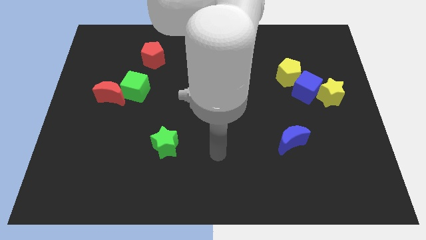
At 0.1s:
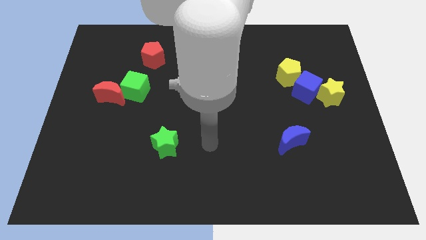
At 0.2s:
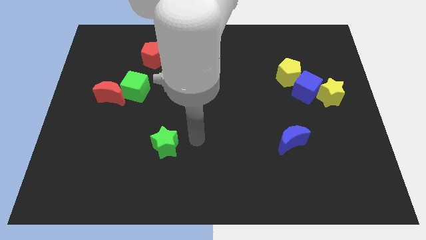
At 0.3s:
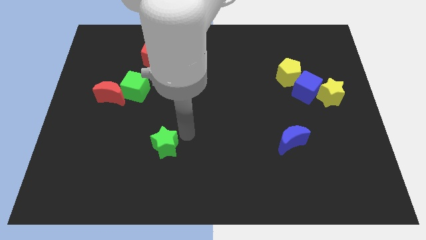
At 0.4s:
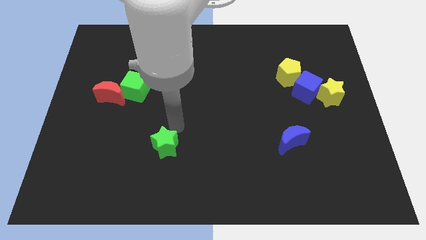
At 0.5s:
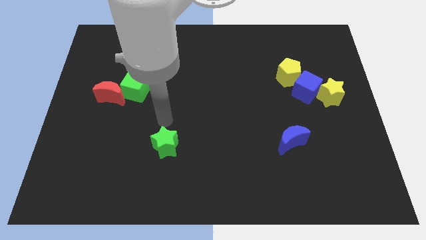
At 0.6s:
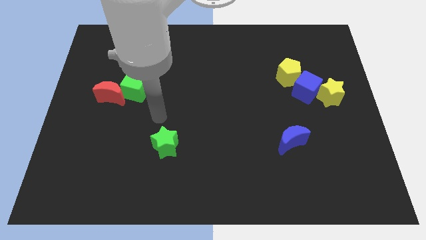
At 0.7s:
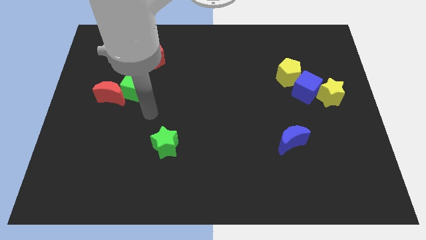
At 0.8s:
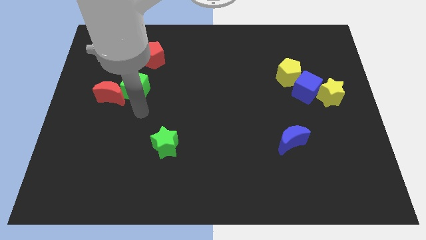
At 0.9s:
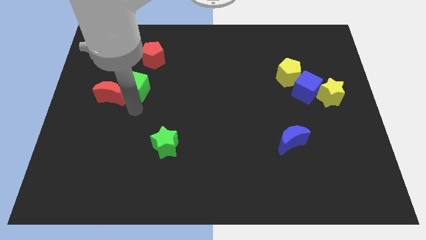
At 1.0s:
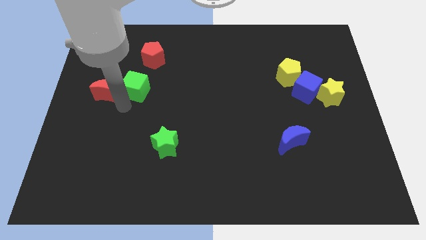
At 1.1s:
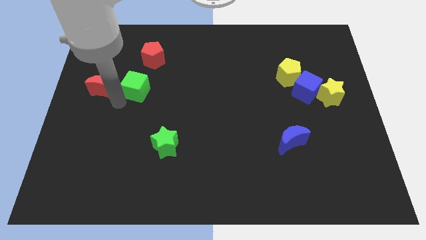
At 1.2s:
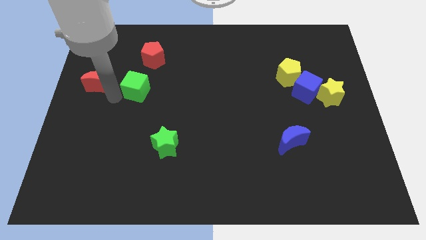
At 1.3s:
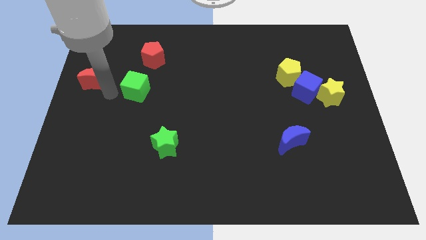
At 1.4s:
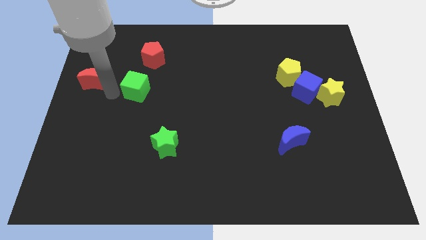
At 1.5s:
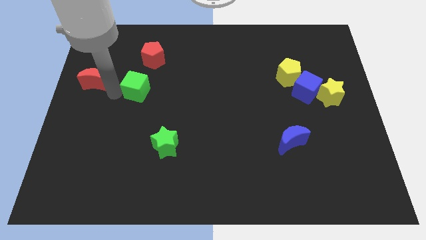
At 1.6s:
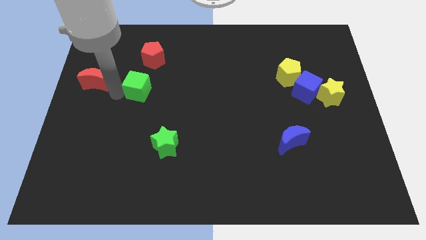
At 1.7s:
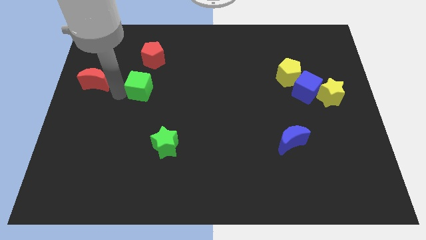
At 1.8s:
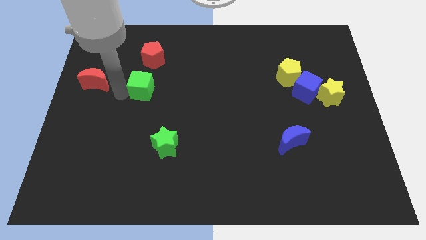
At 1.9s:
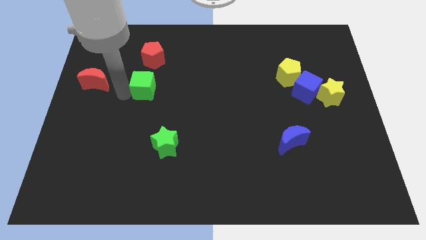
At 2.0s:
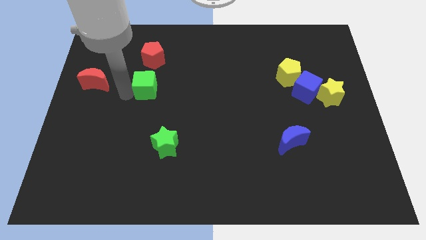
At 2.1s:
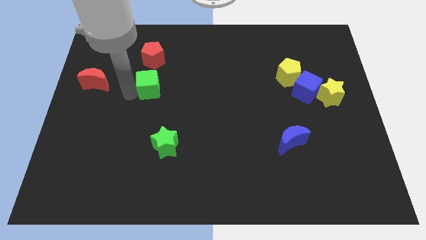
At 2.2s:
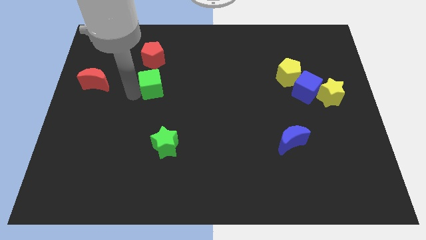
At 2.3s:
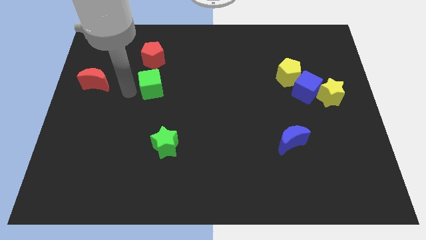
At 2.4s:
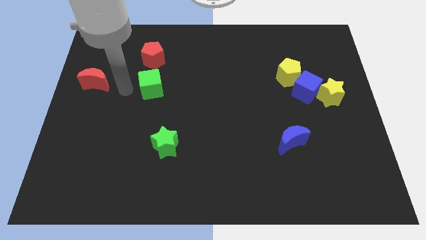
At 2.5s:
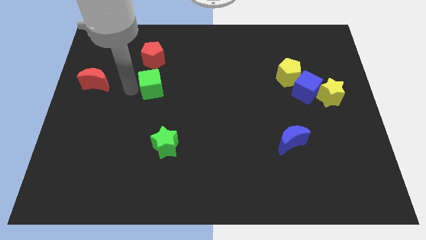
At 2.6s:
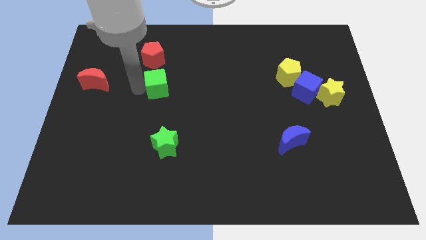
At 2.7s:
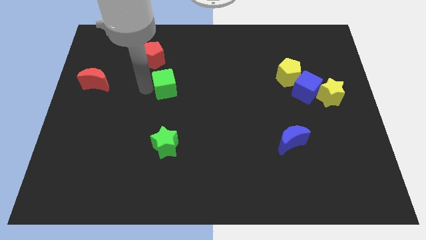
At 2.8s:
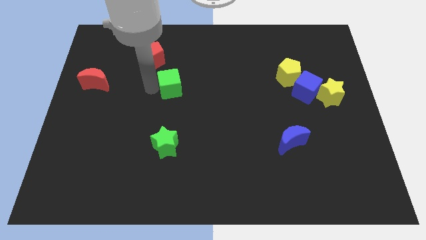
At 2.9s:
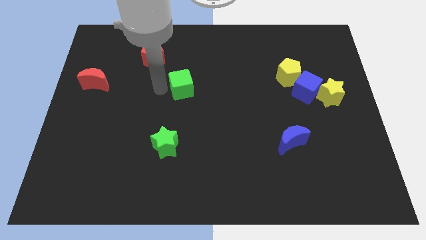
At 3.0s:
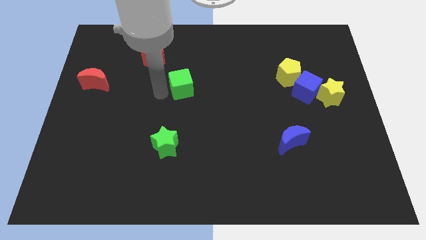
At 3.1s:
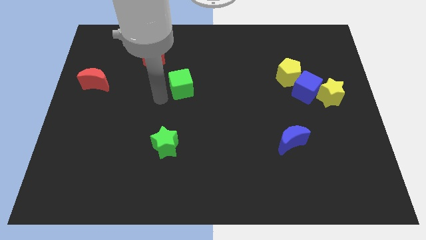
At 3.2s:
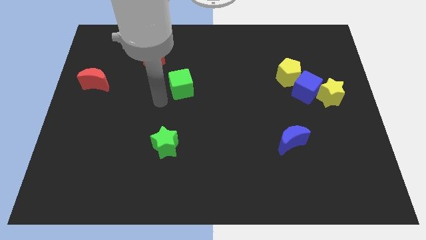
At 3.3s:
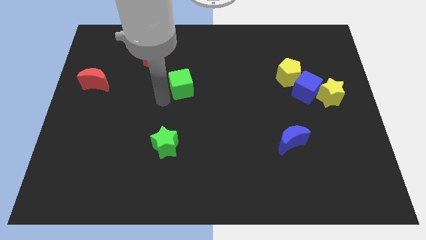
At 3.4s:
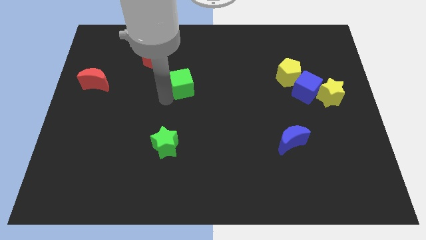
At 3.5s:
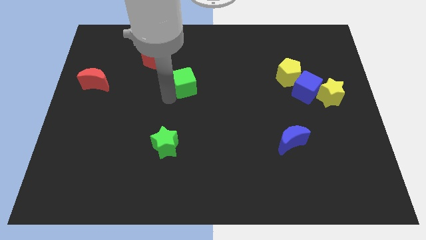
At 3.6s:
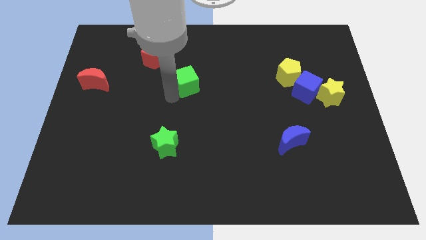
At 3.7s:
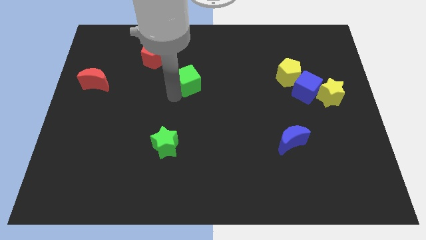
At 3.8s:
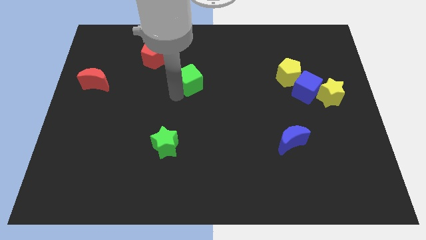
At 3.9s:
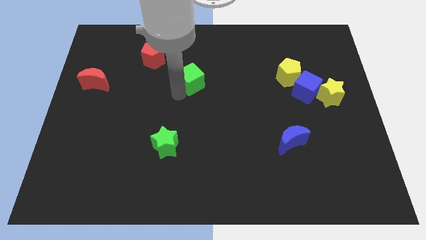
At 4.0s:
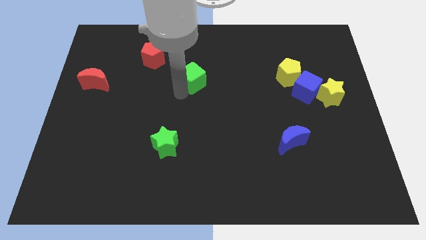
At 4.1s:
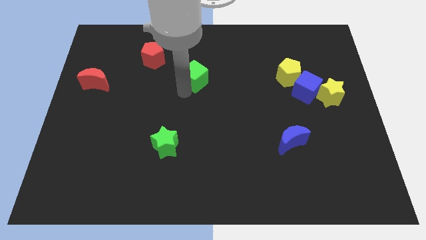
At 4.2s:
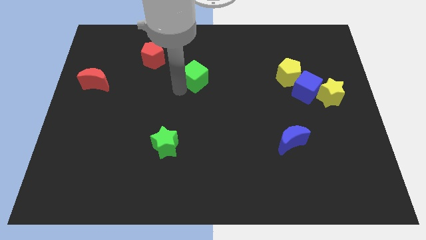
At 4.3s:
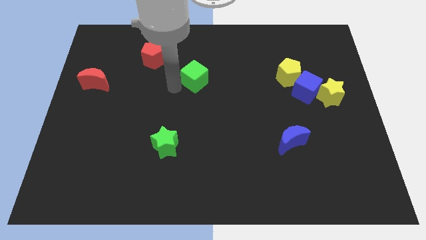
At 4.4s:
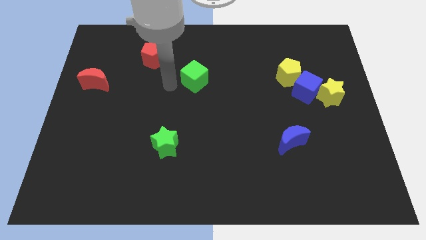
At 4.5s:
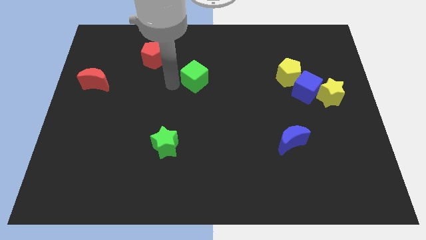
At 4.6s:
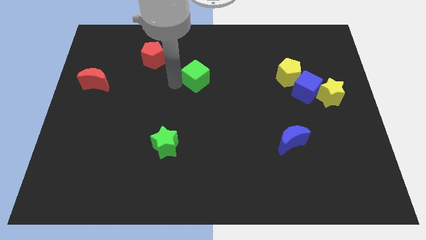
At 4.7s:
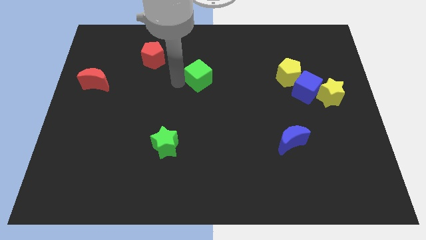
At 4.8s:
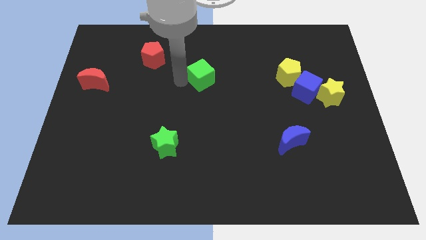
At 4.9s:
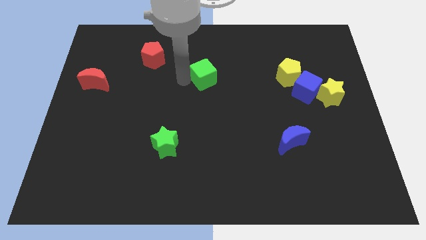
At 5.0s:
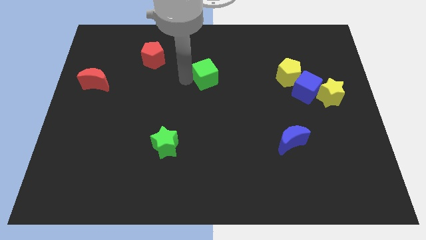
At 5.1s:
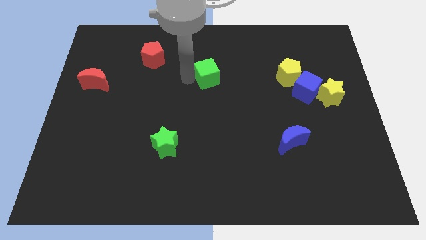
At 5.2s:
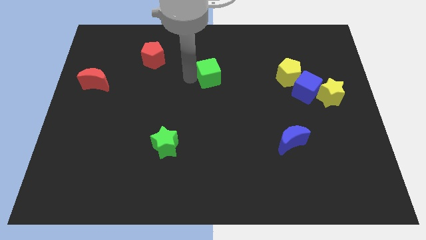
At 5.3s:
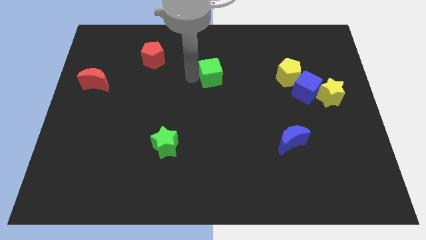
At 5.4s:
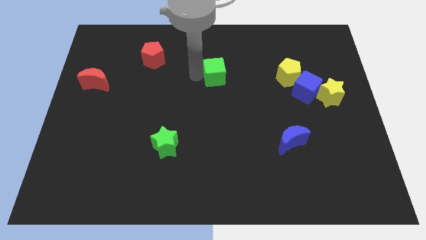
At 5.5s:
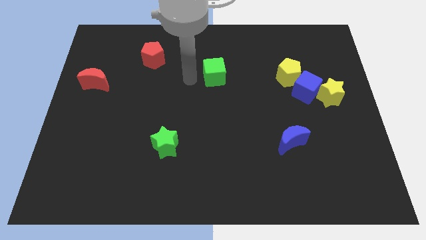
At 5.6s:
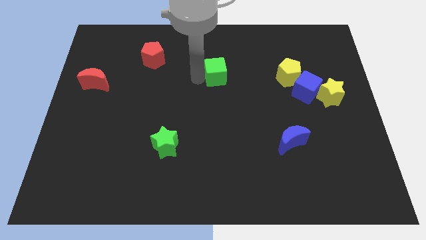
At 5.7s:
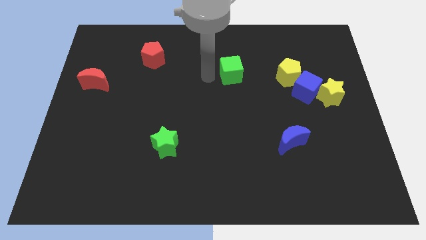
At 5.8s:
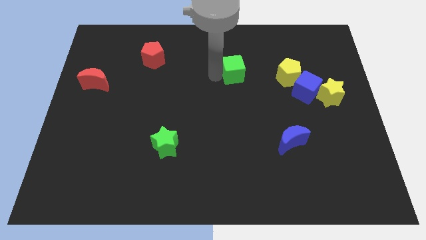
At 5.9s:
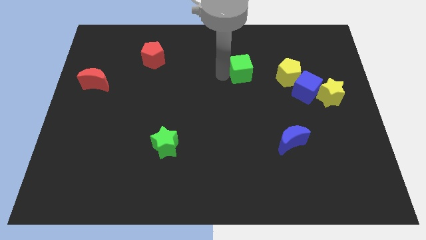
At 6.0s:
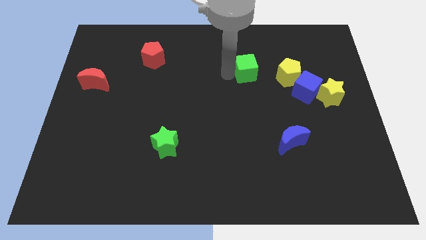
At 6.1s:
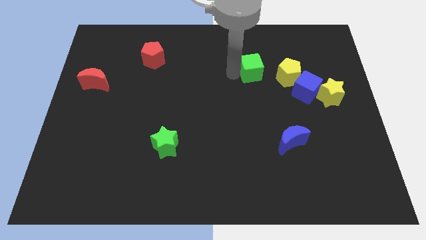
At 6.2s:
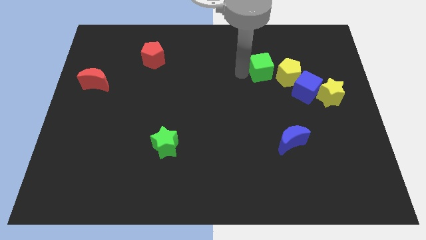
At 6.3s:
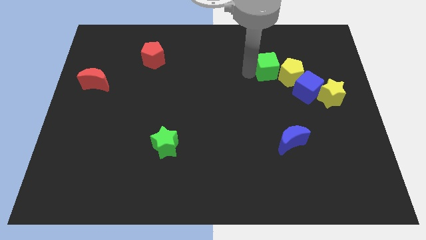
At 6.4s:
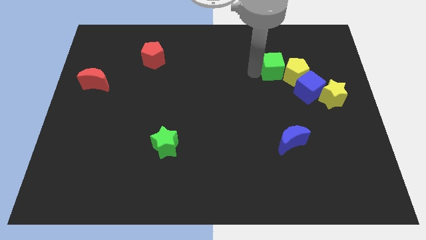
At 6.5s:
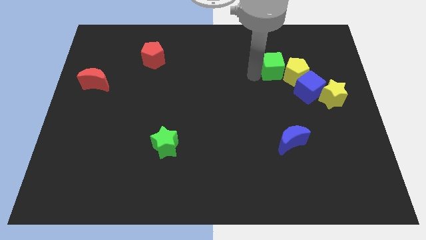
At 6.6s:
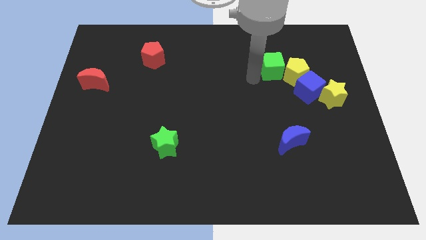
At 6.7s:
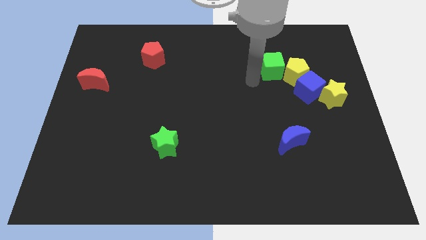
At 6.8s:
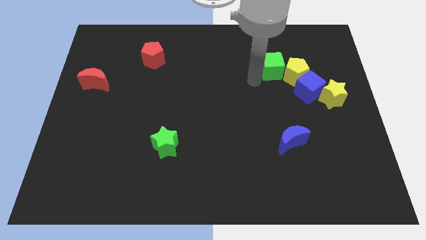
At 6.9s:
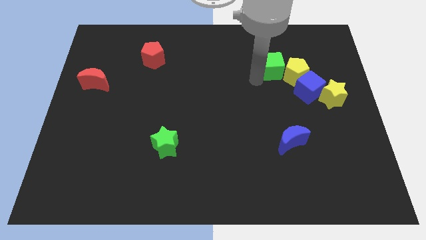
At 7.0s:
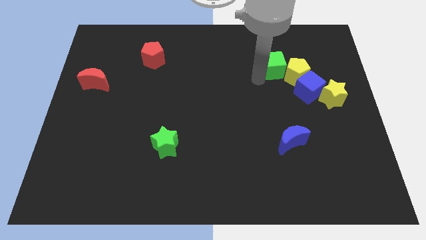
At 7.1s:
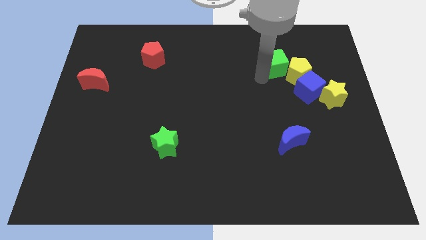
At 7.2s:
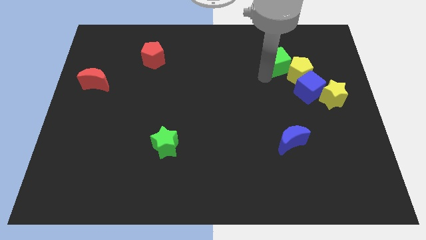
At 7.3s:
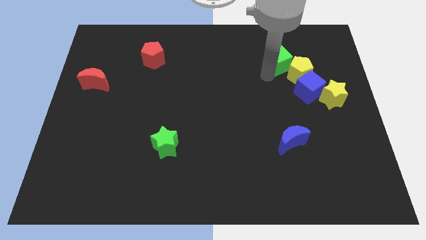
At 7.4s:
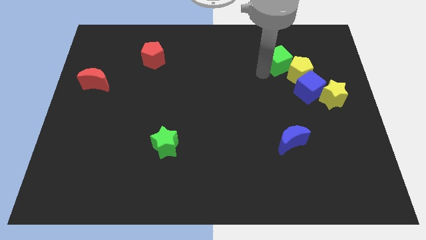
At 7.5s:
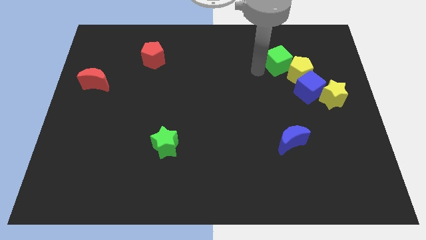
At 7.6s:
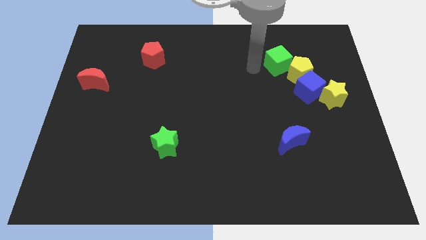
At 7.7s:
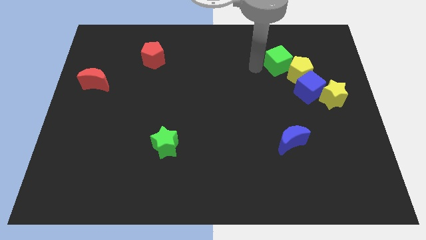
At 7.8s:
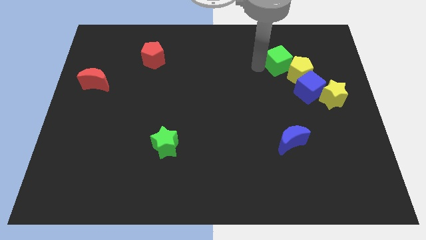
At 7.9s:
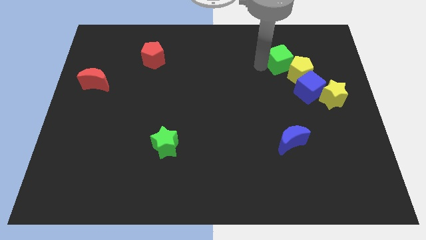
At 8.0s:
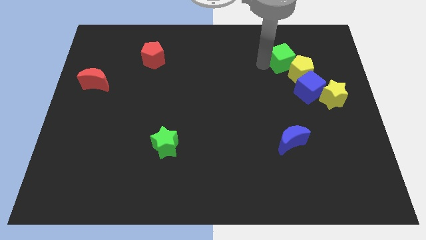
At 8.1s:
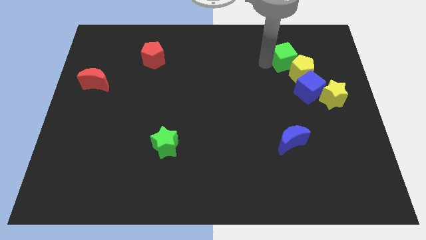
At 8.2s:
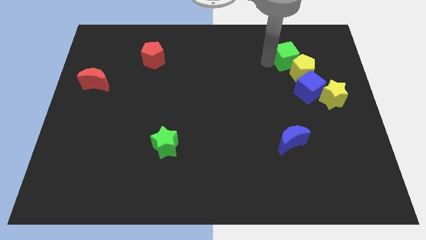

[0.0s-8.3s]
move the green cube to the top of the blue cube
